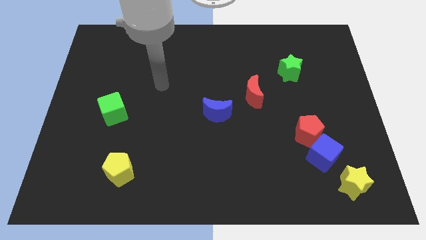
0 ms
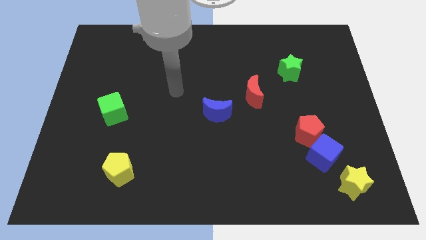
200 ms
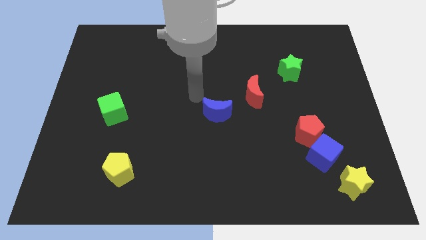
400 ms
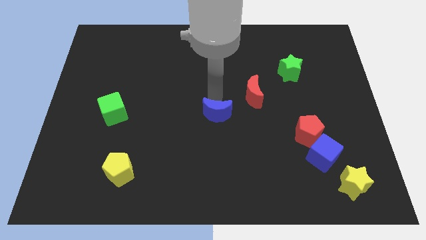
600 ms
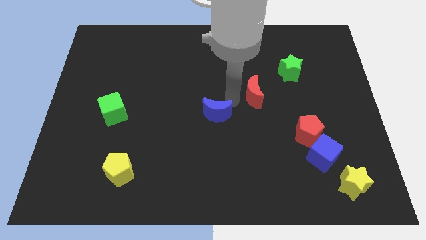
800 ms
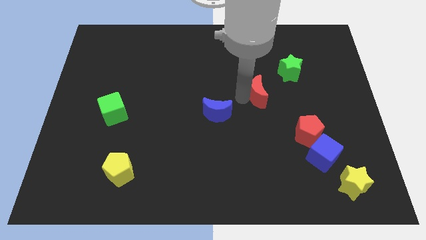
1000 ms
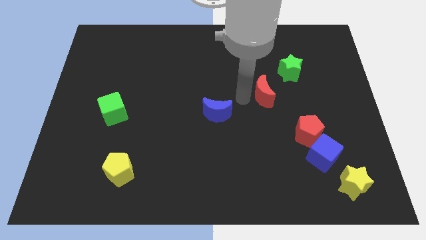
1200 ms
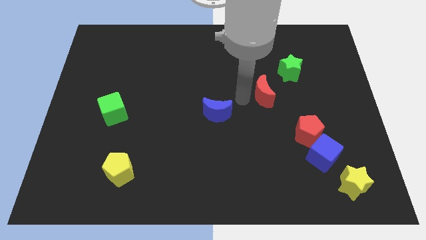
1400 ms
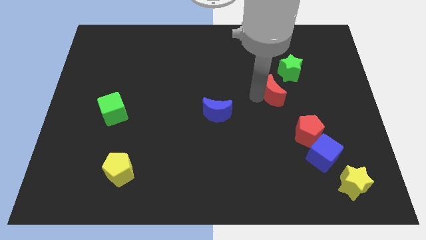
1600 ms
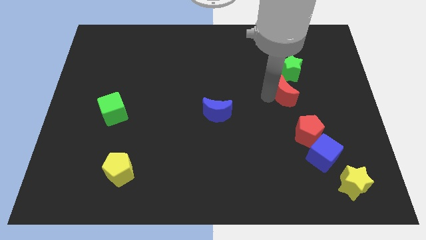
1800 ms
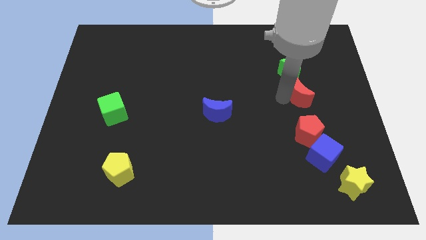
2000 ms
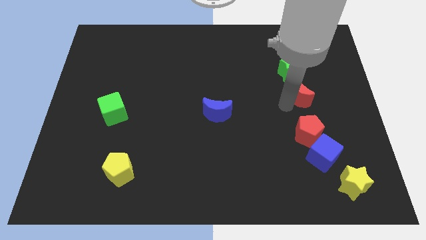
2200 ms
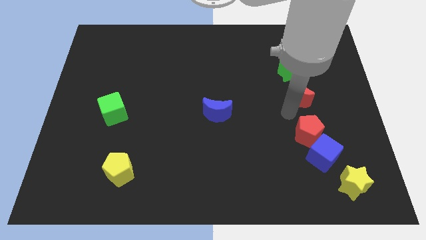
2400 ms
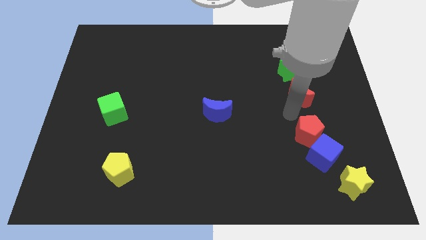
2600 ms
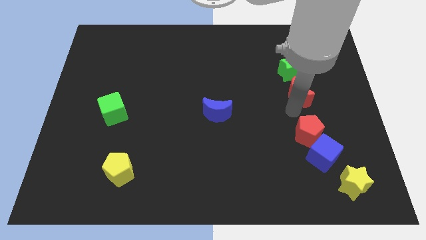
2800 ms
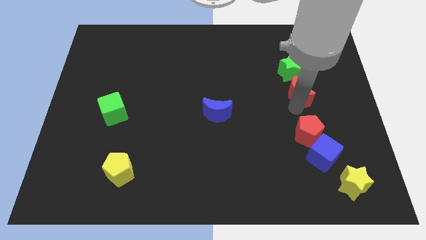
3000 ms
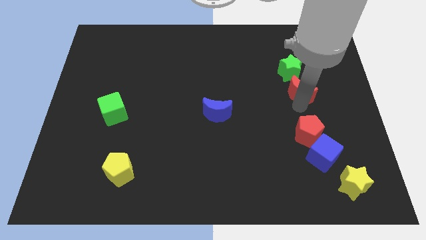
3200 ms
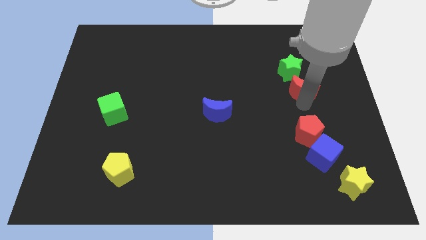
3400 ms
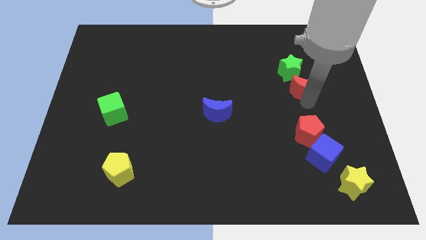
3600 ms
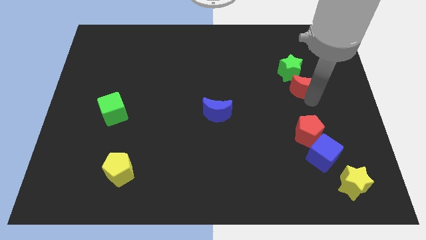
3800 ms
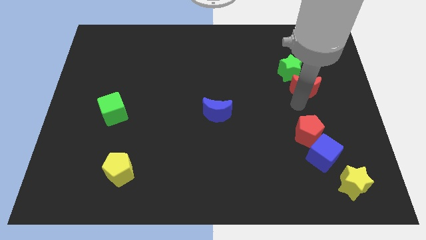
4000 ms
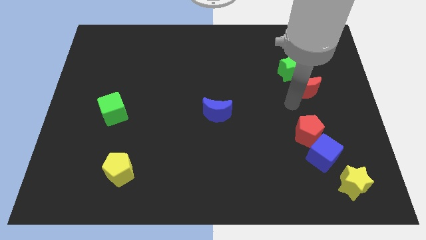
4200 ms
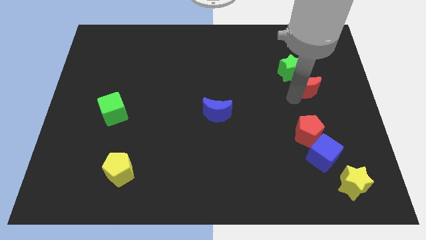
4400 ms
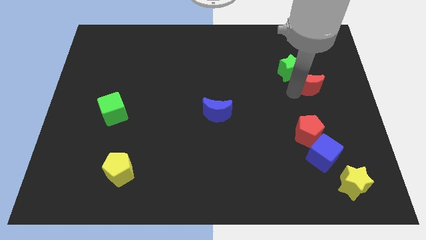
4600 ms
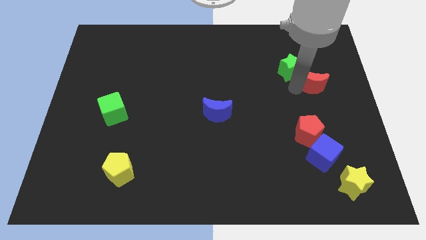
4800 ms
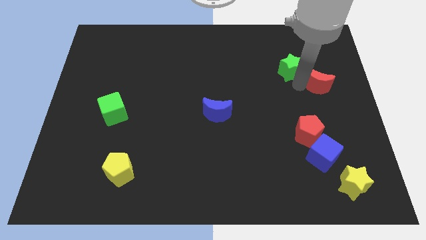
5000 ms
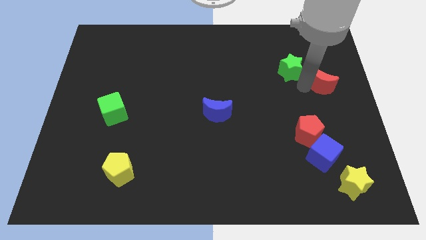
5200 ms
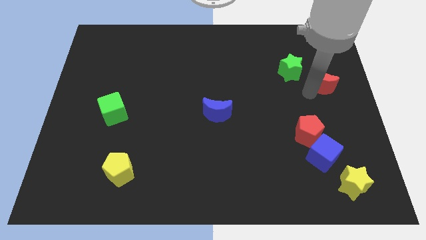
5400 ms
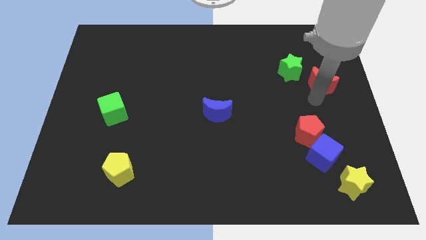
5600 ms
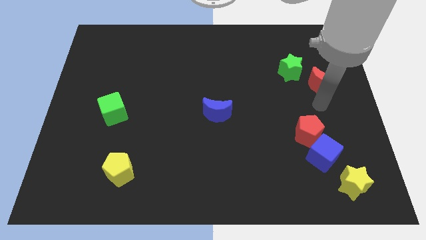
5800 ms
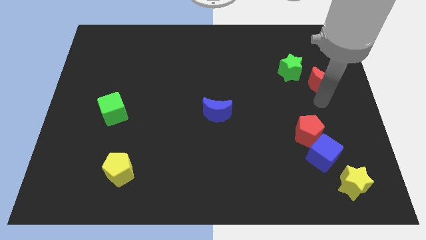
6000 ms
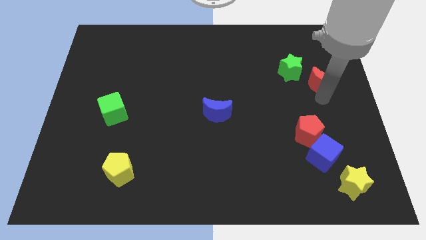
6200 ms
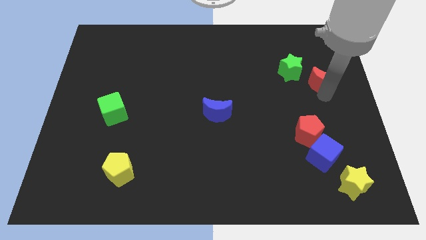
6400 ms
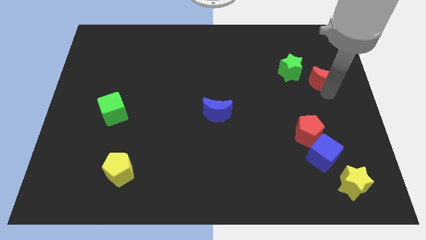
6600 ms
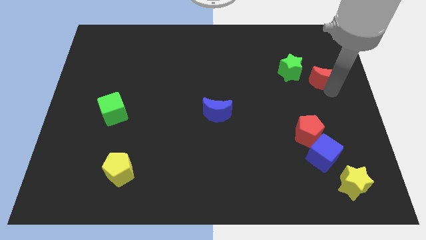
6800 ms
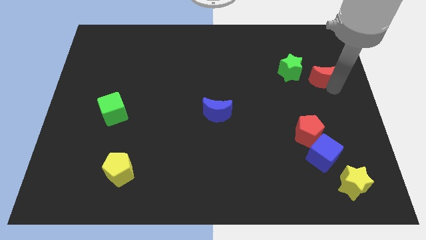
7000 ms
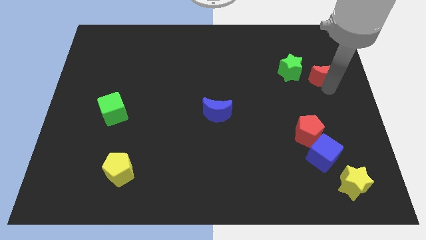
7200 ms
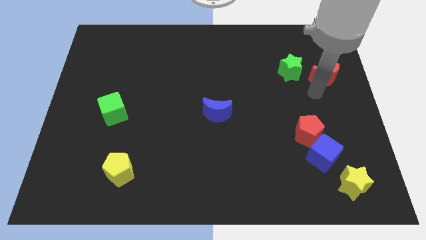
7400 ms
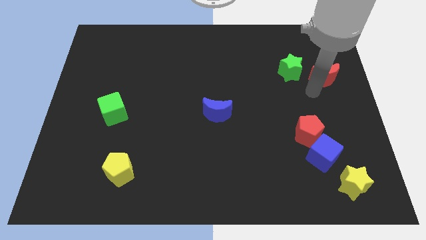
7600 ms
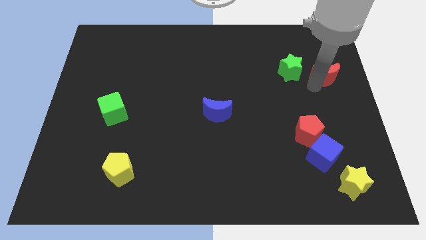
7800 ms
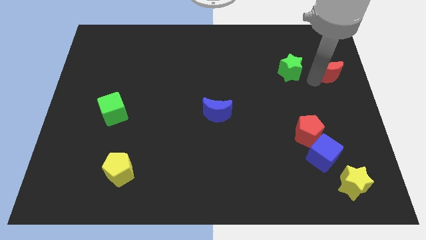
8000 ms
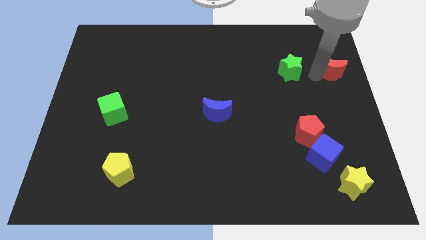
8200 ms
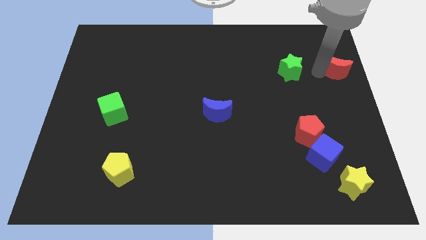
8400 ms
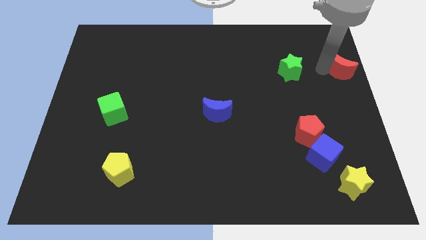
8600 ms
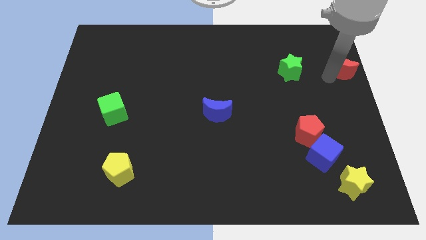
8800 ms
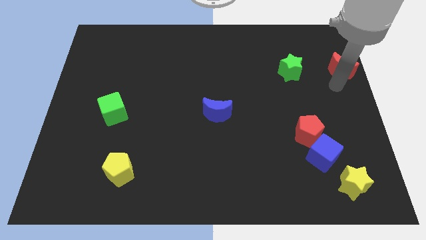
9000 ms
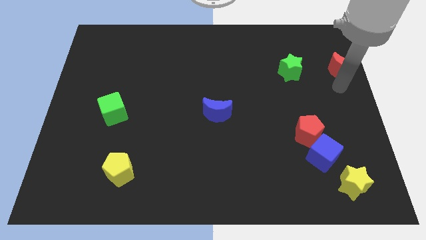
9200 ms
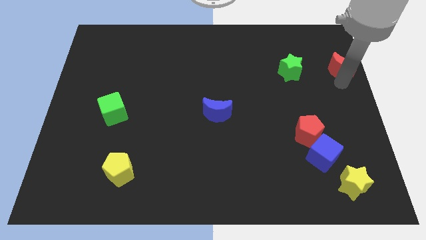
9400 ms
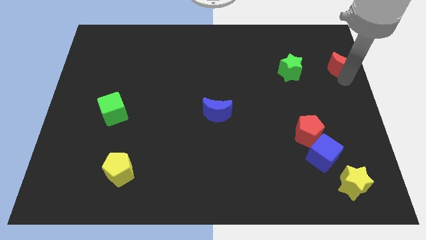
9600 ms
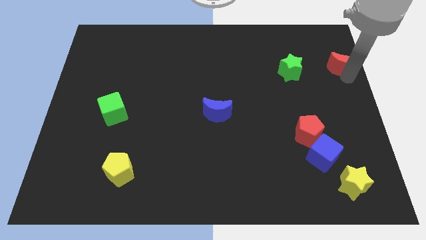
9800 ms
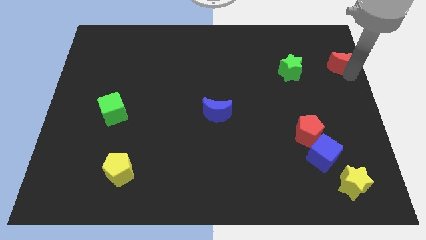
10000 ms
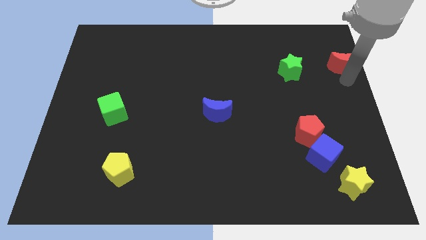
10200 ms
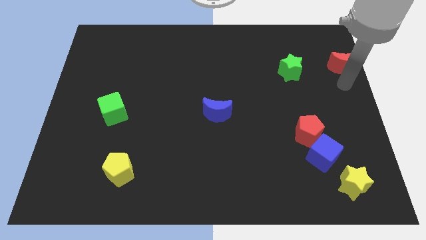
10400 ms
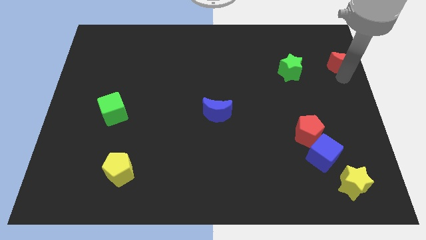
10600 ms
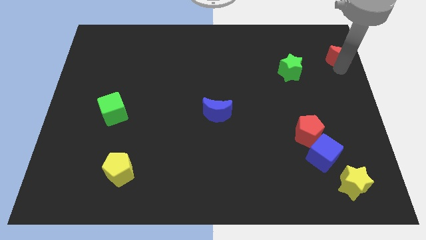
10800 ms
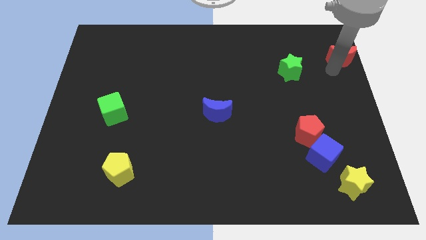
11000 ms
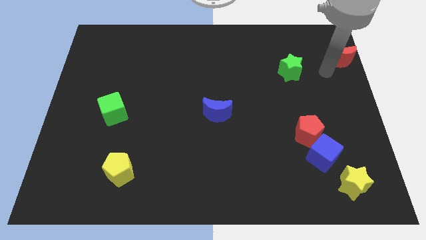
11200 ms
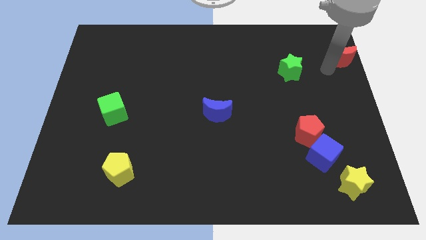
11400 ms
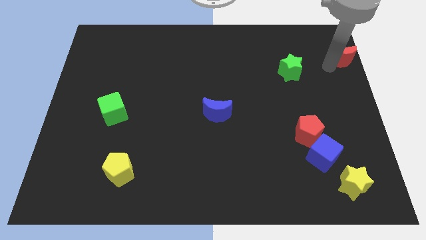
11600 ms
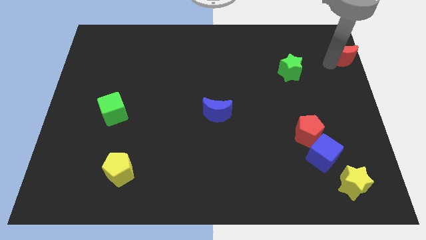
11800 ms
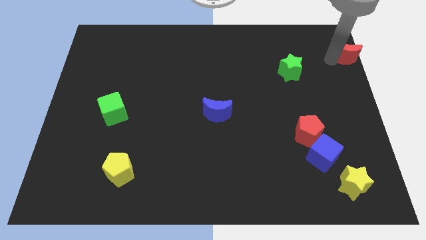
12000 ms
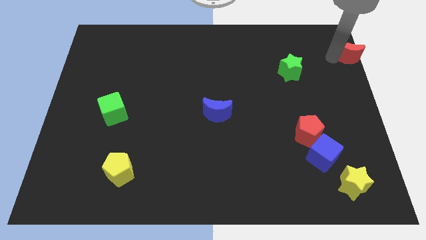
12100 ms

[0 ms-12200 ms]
slide the red moon to the upper right corner

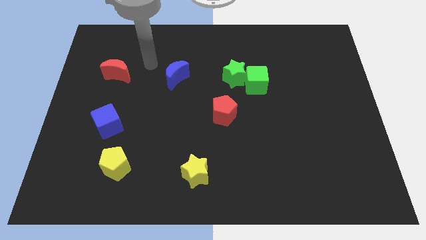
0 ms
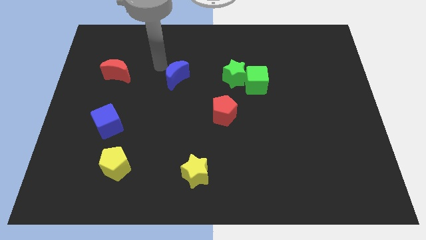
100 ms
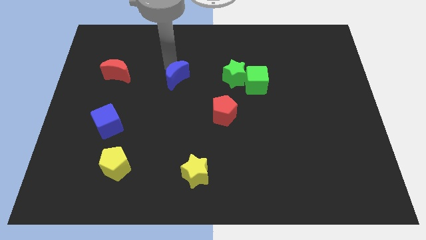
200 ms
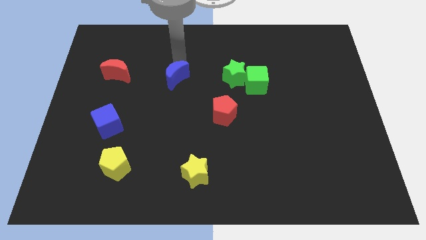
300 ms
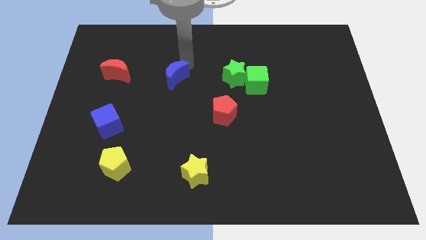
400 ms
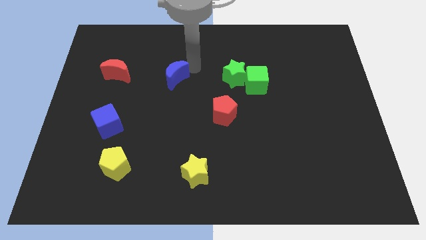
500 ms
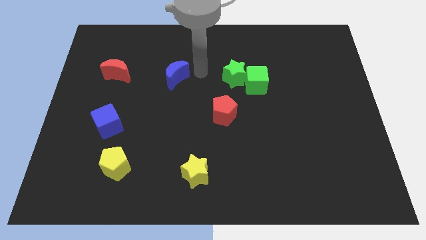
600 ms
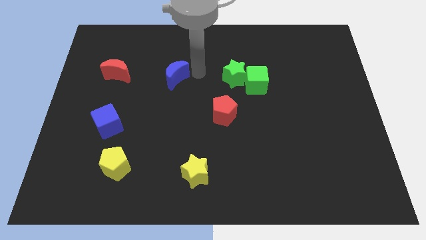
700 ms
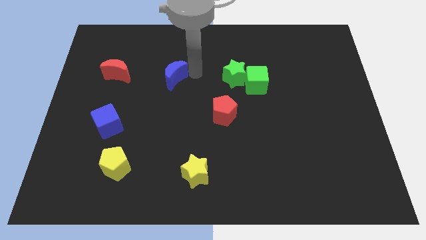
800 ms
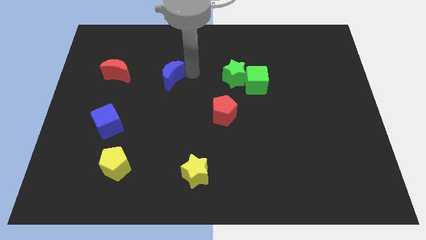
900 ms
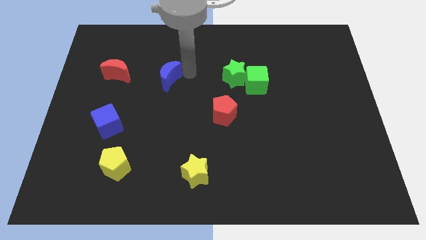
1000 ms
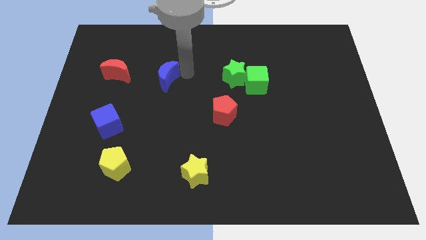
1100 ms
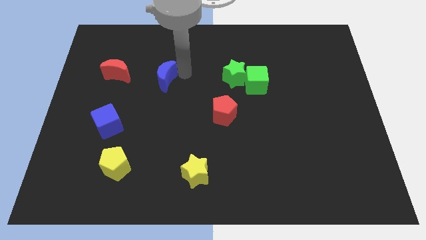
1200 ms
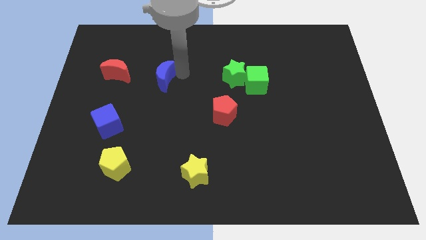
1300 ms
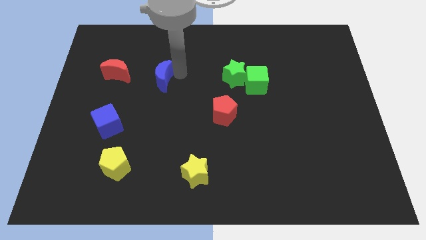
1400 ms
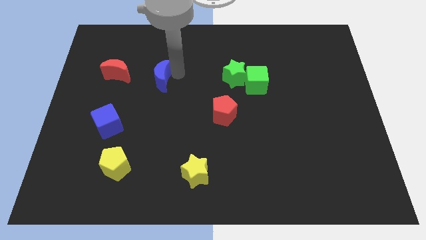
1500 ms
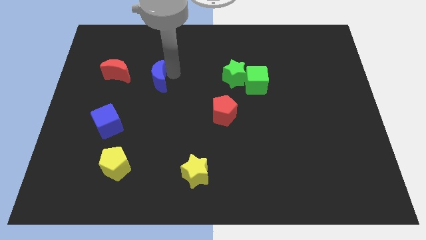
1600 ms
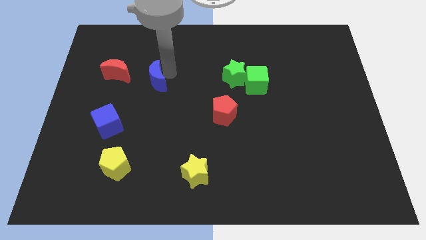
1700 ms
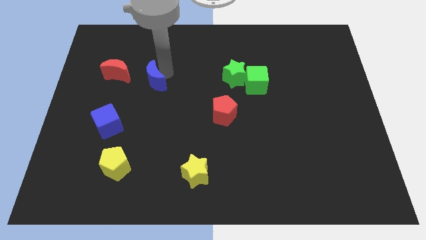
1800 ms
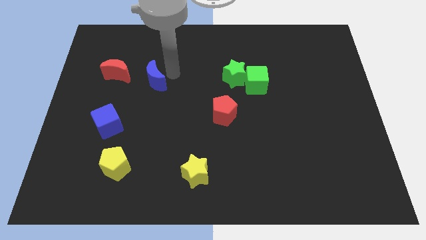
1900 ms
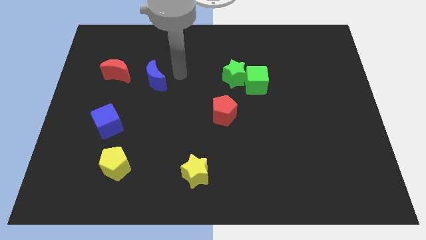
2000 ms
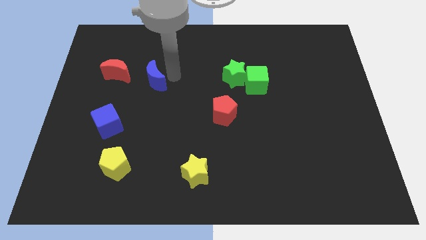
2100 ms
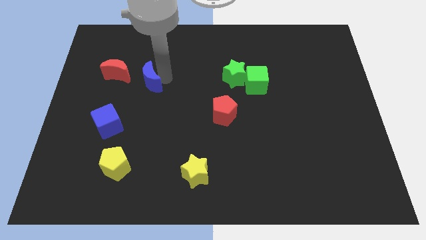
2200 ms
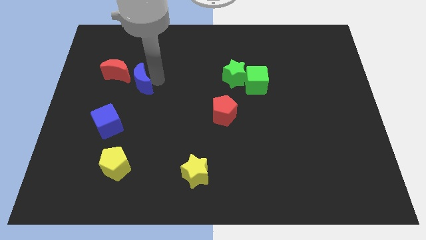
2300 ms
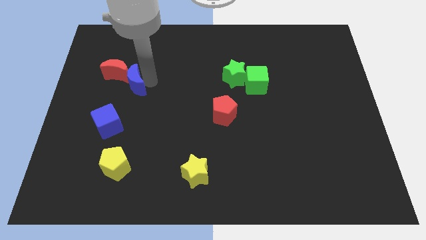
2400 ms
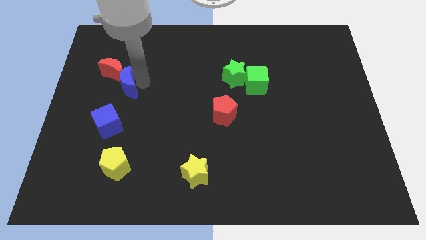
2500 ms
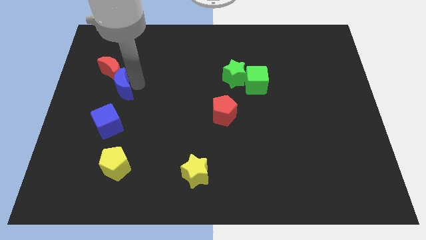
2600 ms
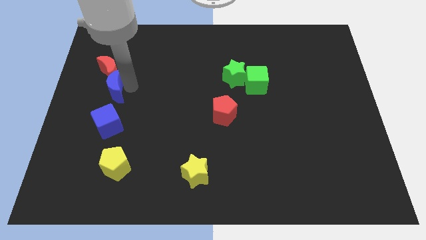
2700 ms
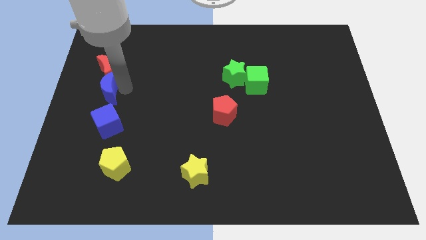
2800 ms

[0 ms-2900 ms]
move the blue moon to the left side
